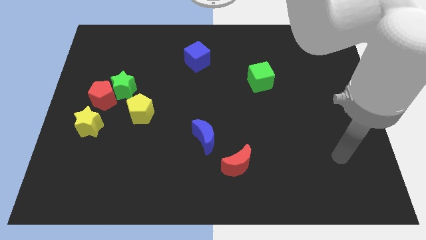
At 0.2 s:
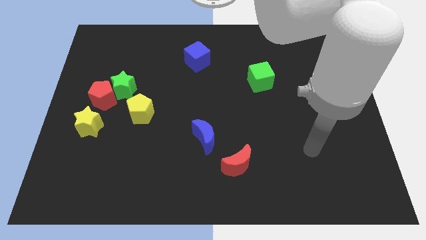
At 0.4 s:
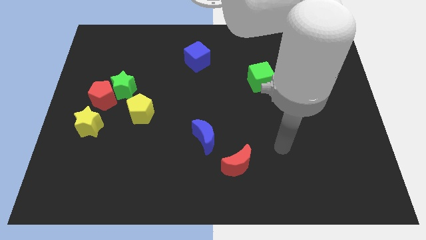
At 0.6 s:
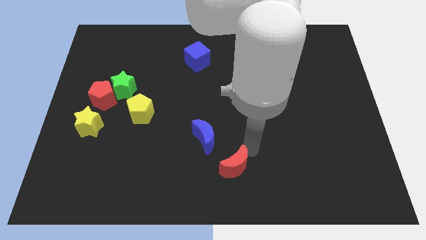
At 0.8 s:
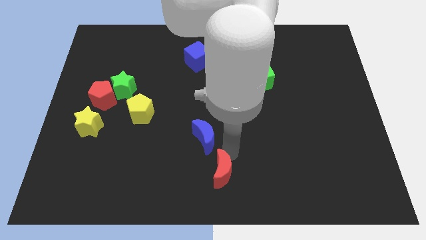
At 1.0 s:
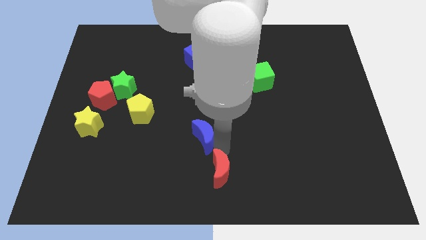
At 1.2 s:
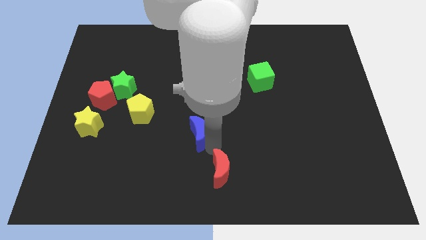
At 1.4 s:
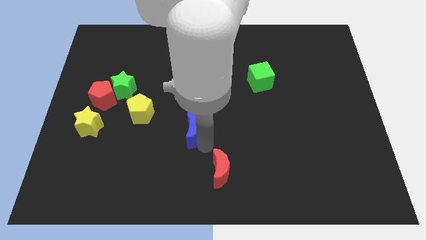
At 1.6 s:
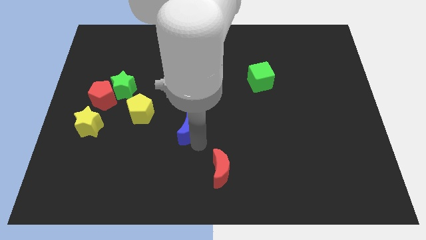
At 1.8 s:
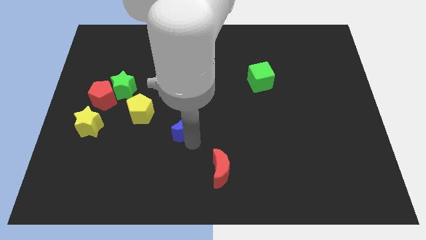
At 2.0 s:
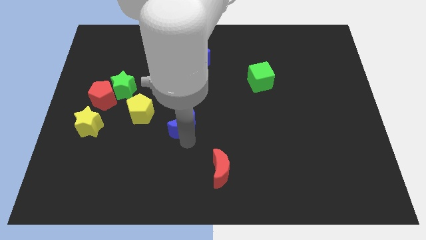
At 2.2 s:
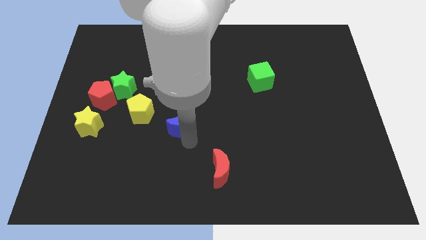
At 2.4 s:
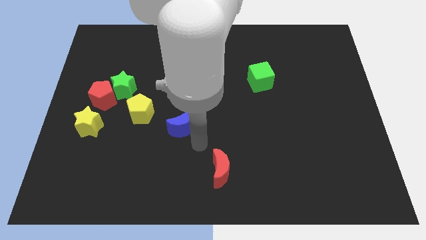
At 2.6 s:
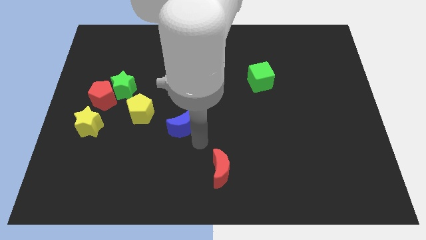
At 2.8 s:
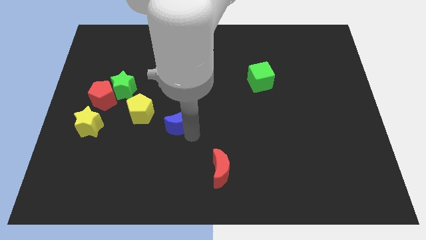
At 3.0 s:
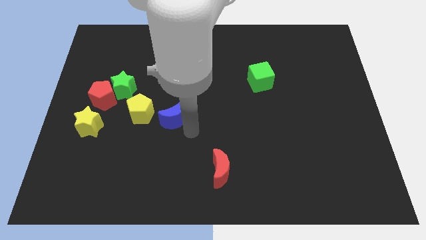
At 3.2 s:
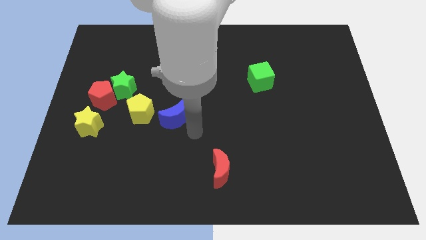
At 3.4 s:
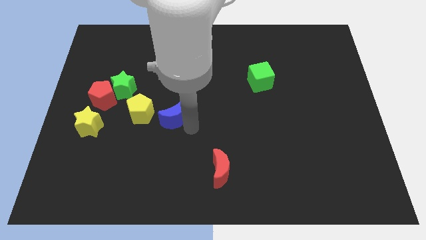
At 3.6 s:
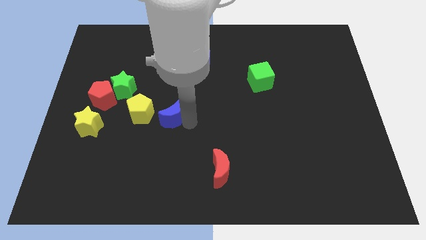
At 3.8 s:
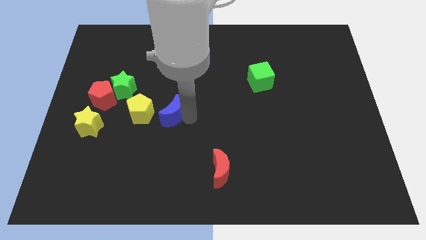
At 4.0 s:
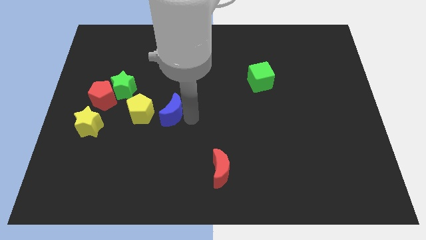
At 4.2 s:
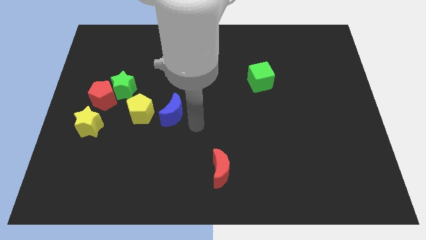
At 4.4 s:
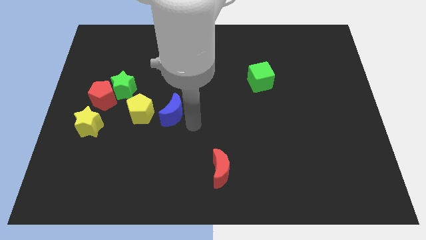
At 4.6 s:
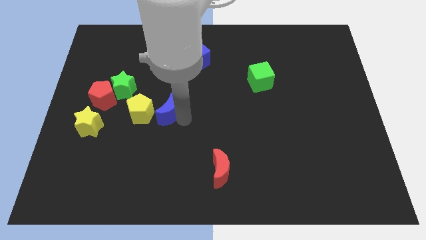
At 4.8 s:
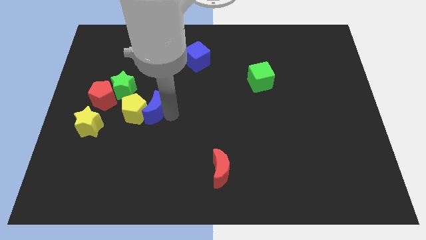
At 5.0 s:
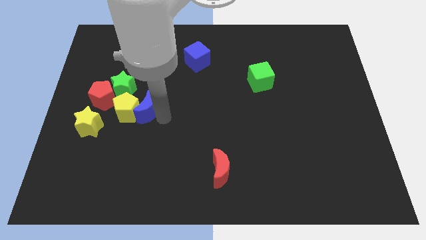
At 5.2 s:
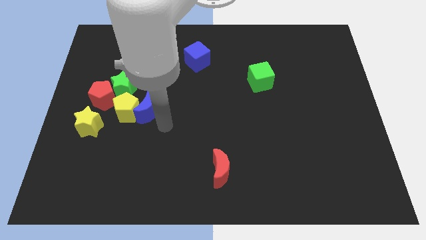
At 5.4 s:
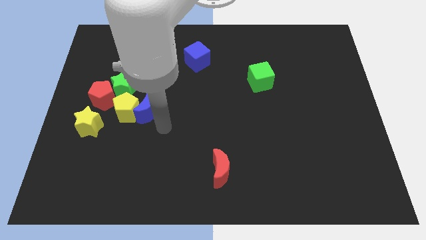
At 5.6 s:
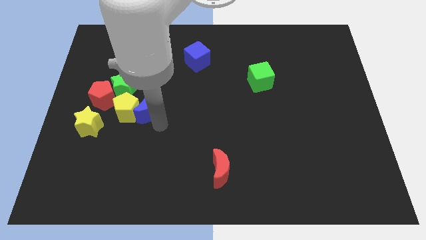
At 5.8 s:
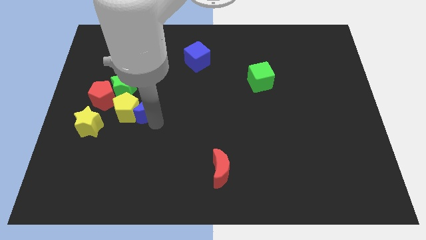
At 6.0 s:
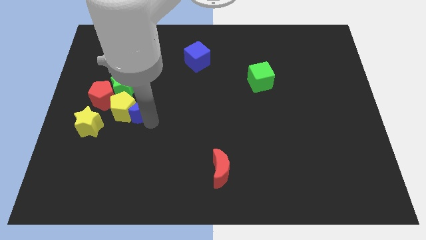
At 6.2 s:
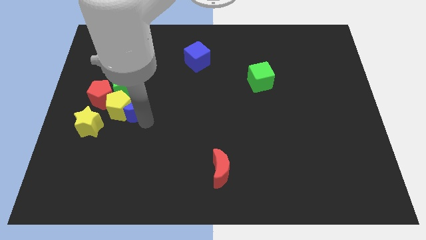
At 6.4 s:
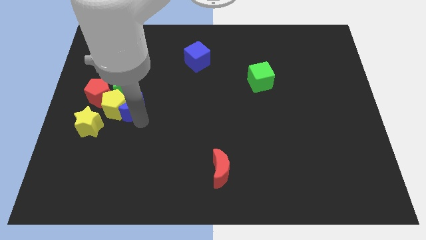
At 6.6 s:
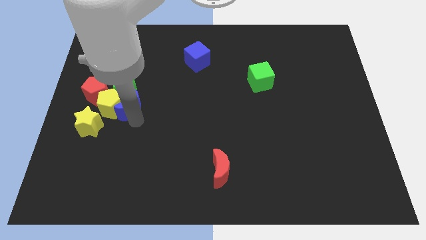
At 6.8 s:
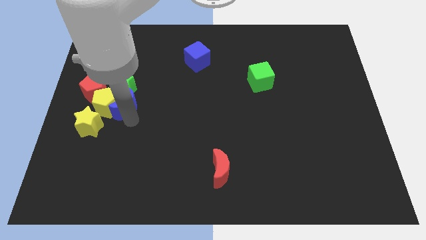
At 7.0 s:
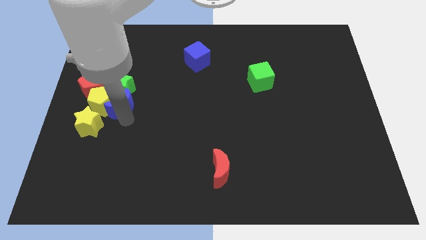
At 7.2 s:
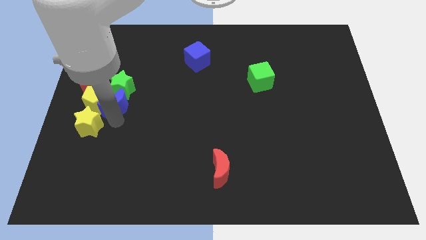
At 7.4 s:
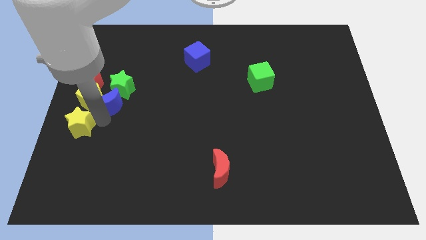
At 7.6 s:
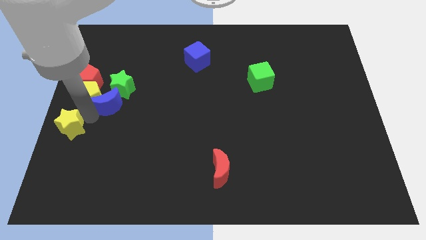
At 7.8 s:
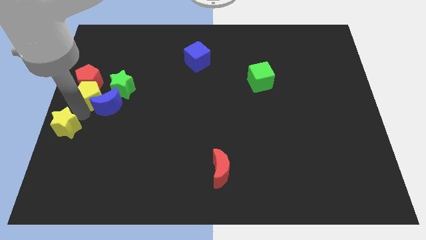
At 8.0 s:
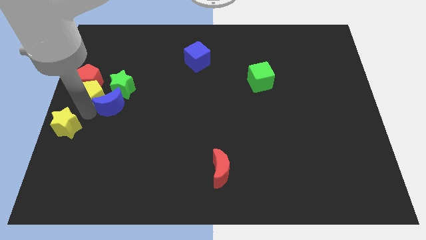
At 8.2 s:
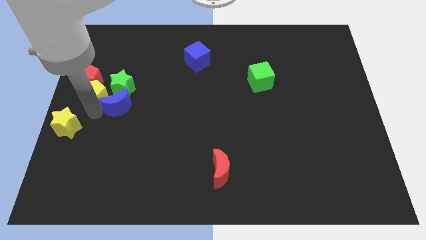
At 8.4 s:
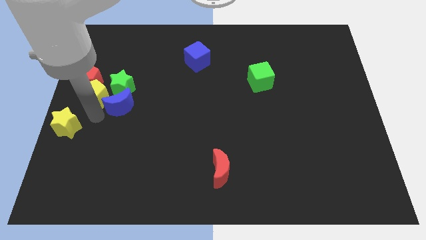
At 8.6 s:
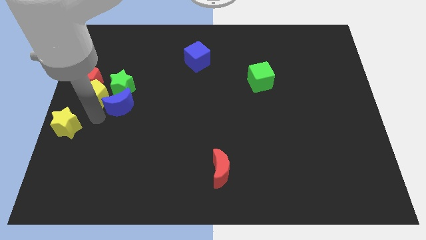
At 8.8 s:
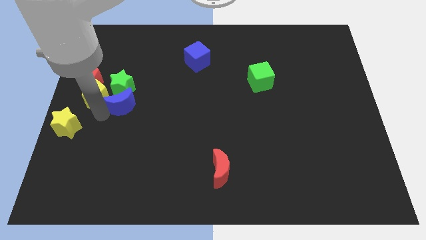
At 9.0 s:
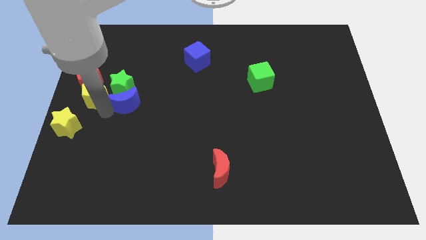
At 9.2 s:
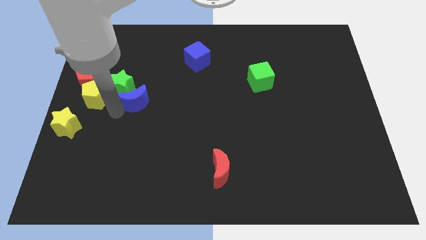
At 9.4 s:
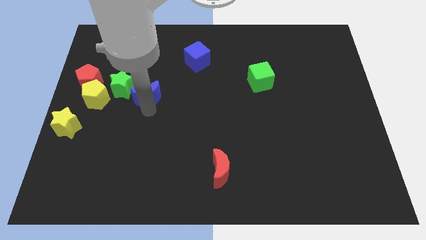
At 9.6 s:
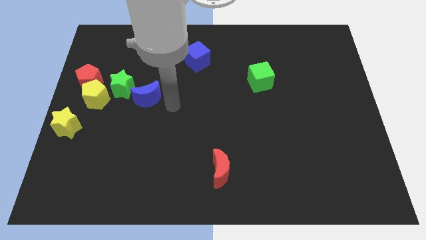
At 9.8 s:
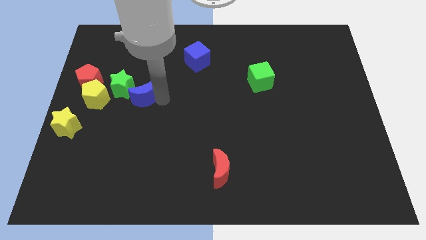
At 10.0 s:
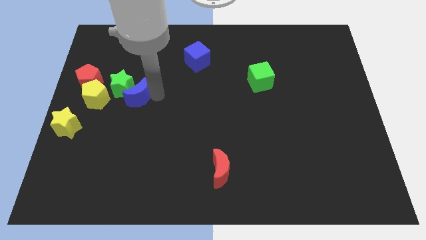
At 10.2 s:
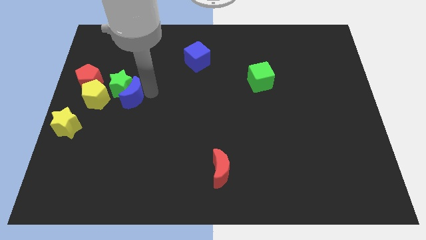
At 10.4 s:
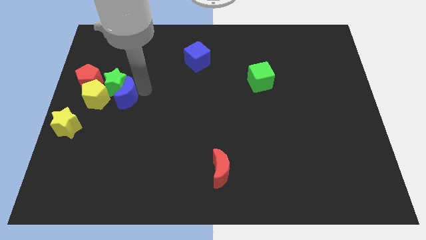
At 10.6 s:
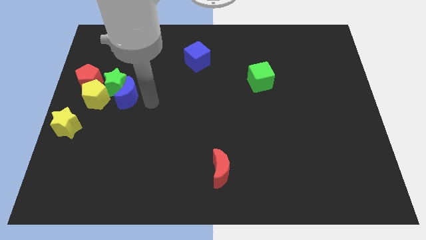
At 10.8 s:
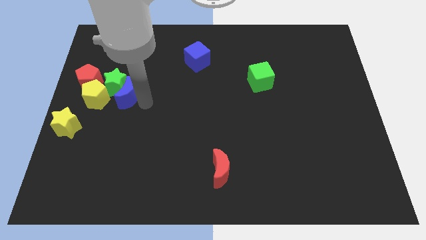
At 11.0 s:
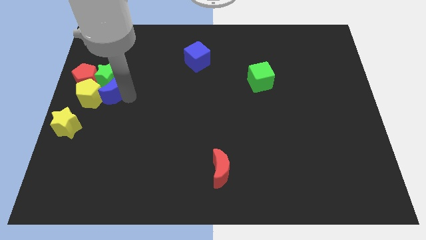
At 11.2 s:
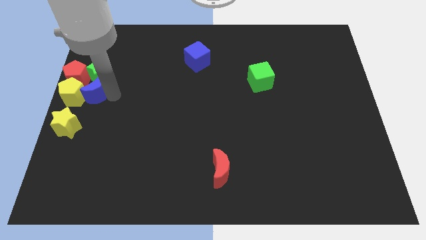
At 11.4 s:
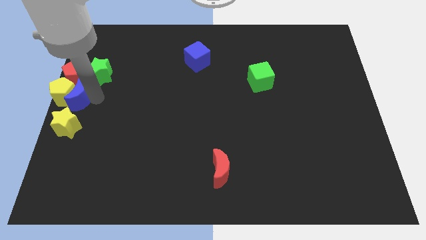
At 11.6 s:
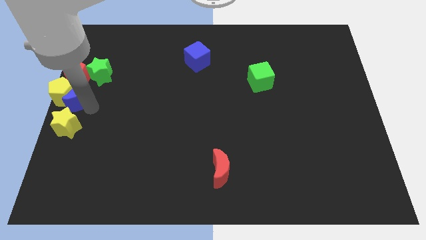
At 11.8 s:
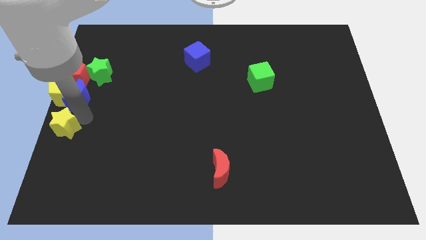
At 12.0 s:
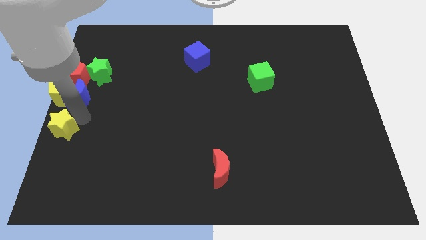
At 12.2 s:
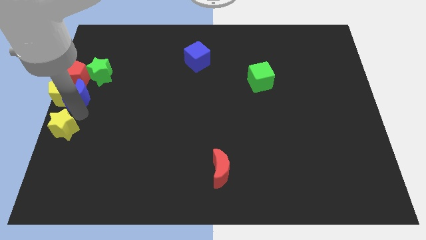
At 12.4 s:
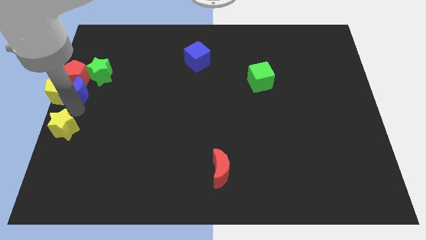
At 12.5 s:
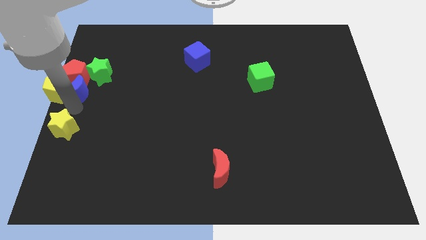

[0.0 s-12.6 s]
push the blue moon towards the red pentagon

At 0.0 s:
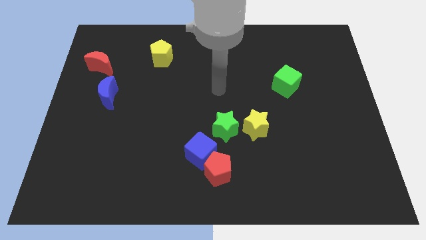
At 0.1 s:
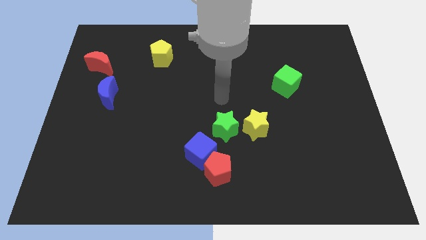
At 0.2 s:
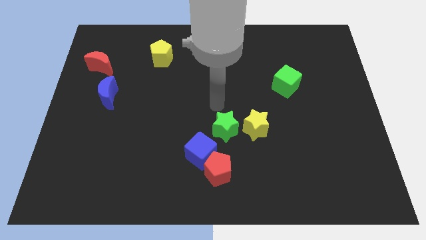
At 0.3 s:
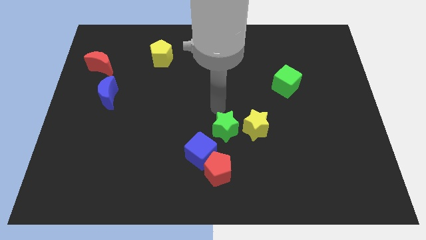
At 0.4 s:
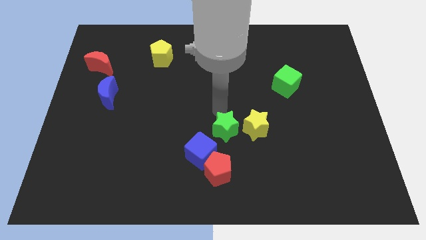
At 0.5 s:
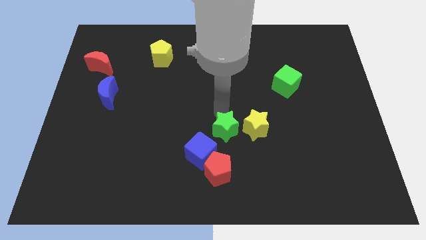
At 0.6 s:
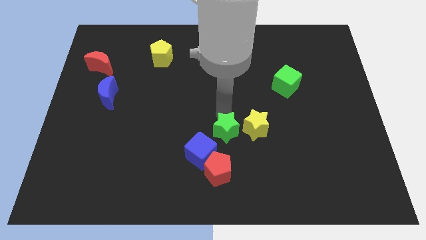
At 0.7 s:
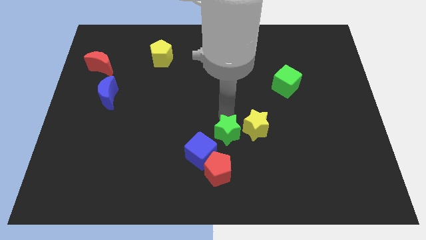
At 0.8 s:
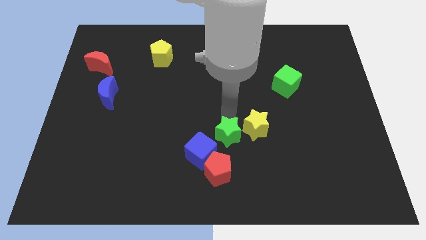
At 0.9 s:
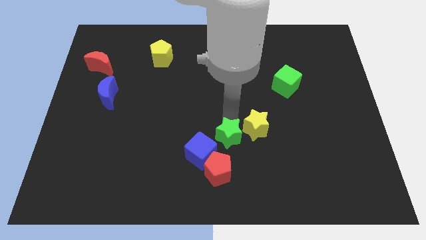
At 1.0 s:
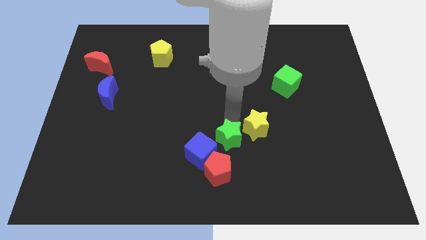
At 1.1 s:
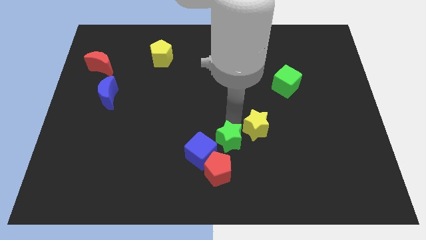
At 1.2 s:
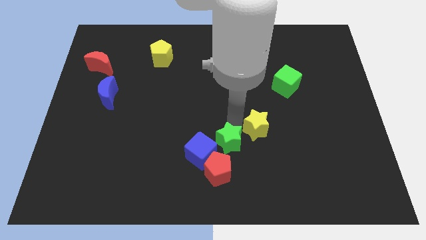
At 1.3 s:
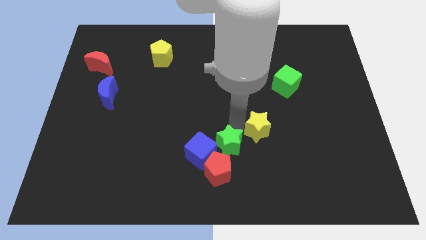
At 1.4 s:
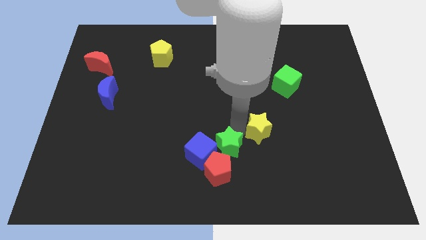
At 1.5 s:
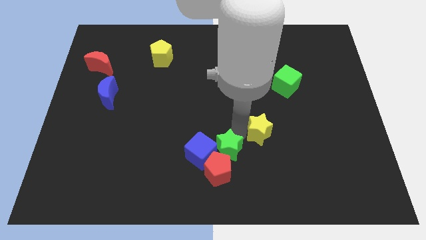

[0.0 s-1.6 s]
slide the green star next to the red pentagon
